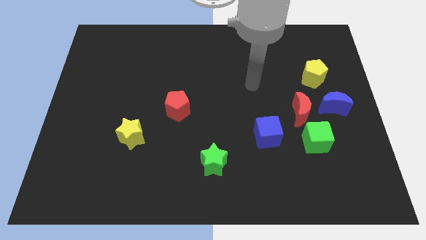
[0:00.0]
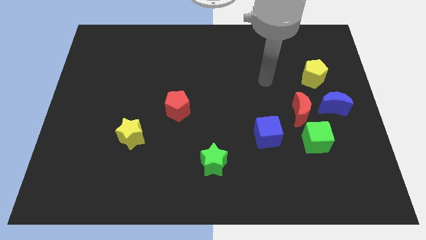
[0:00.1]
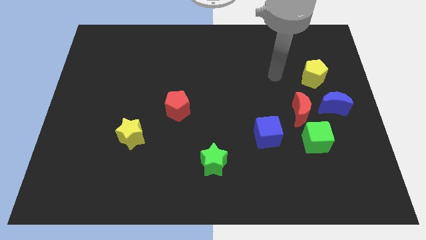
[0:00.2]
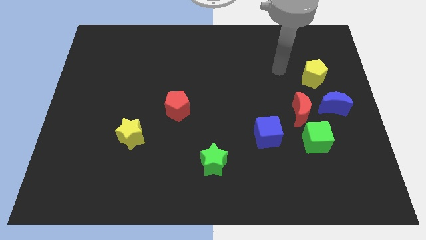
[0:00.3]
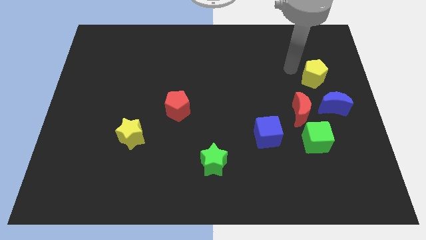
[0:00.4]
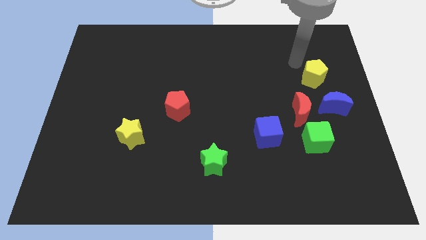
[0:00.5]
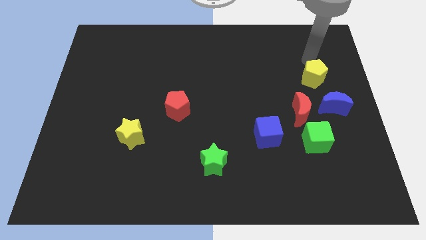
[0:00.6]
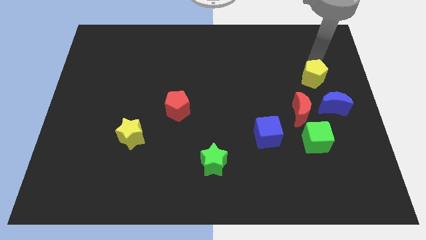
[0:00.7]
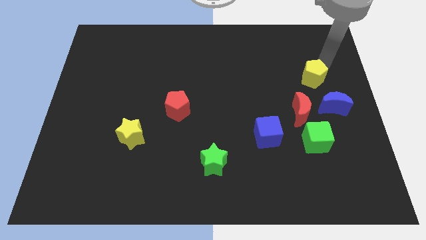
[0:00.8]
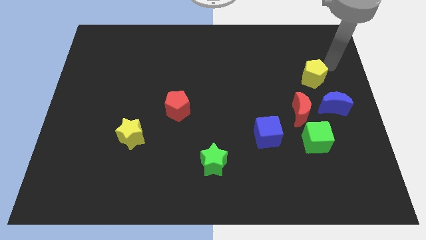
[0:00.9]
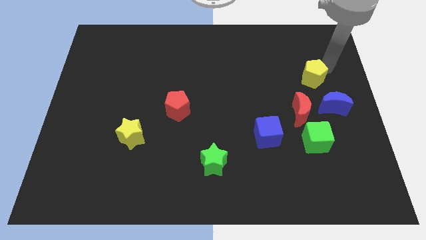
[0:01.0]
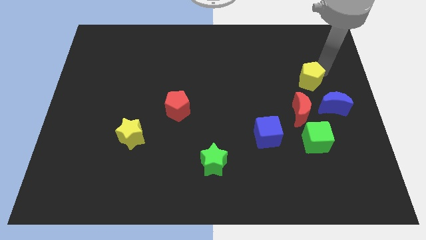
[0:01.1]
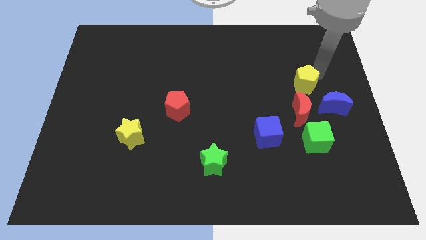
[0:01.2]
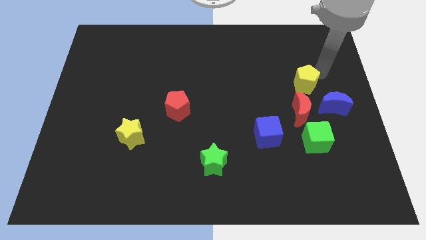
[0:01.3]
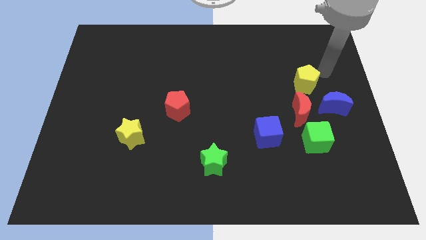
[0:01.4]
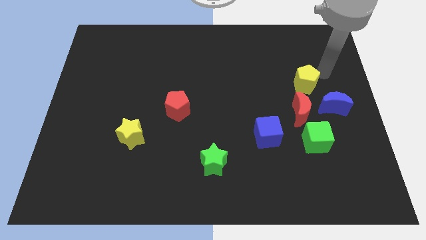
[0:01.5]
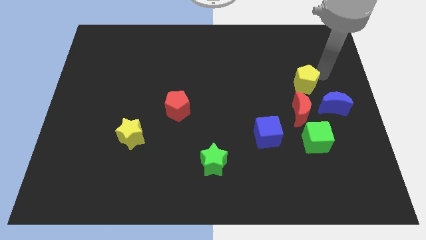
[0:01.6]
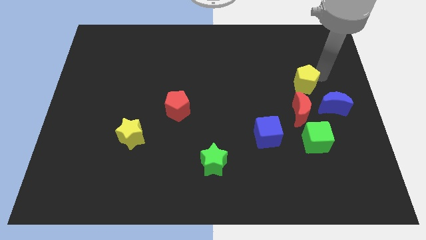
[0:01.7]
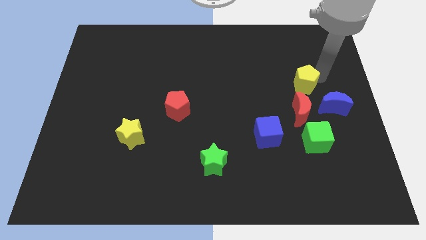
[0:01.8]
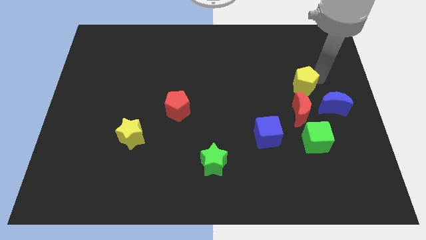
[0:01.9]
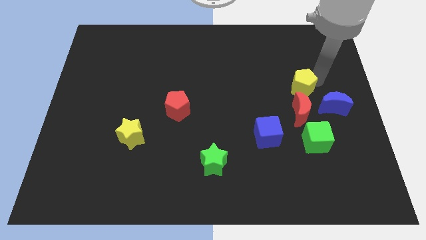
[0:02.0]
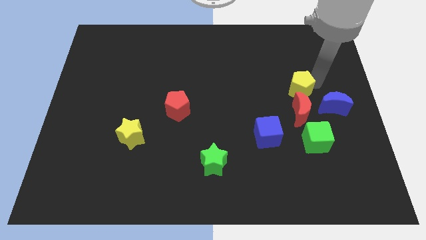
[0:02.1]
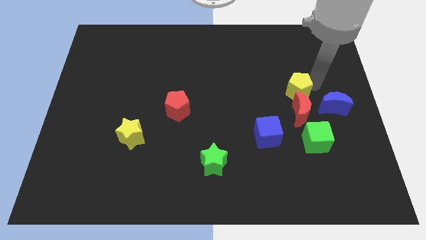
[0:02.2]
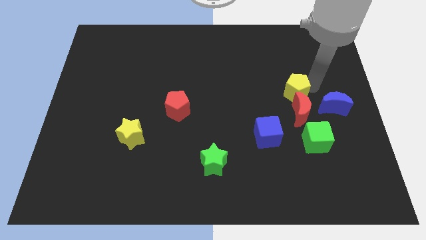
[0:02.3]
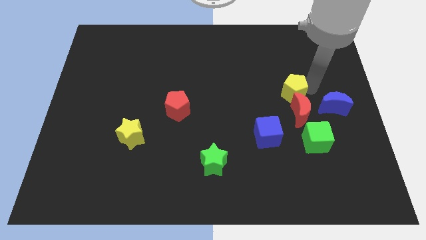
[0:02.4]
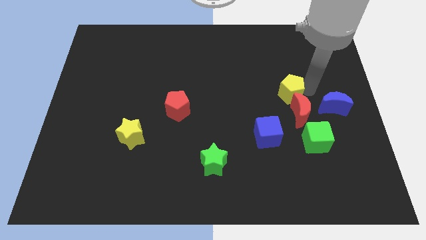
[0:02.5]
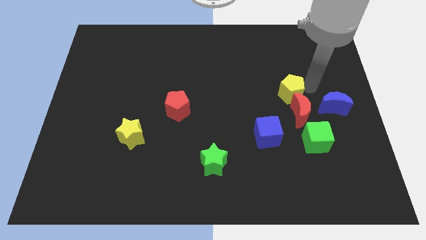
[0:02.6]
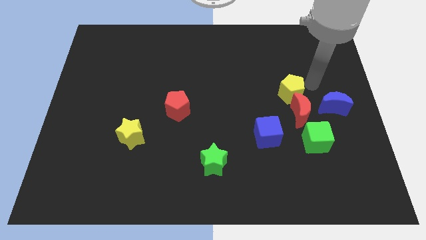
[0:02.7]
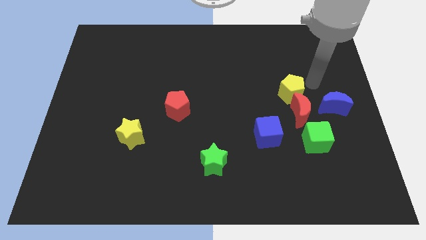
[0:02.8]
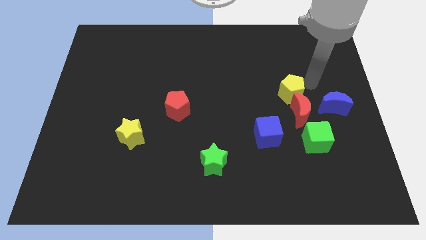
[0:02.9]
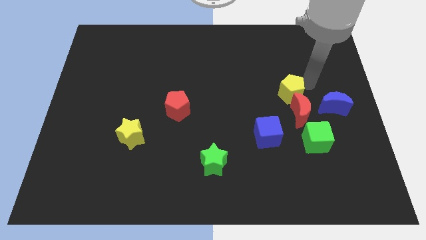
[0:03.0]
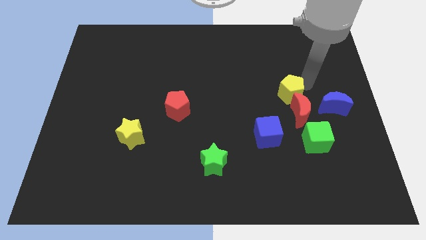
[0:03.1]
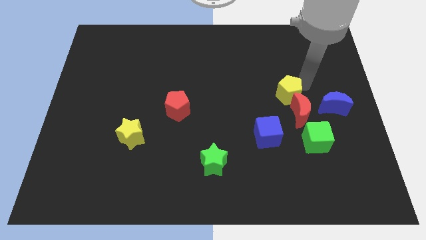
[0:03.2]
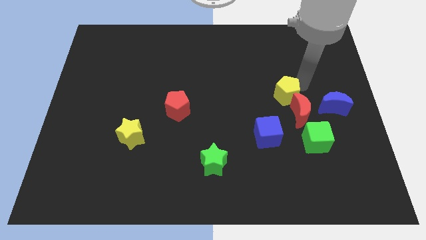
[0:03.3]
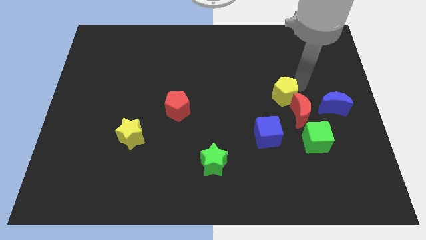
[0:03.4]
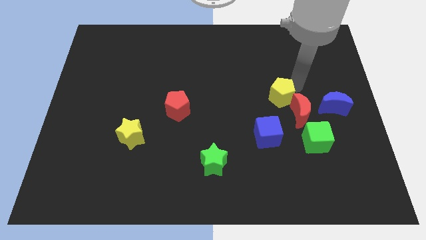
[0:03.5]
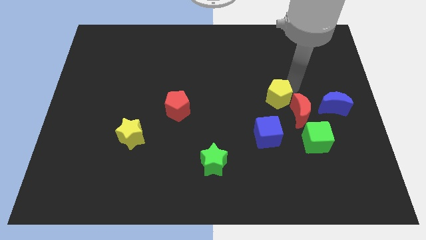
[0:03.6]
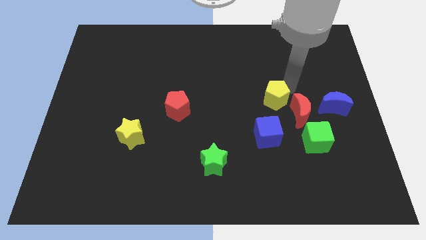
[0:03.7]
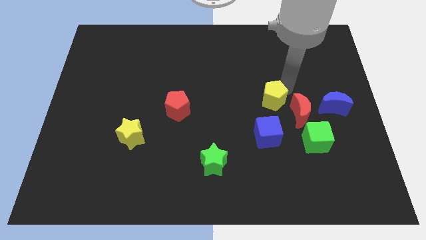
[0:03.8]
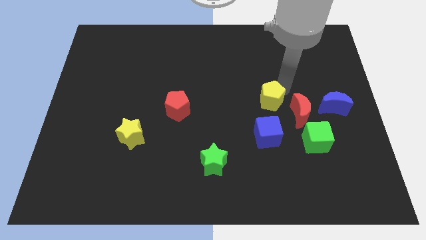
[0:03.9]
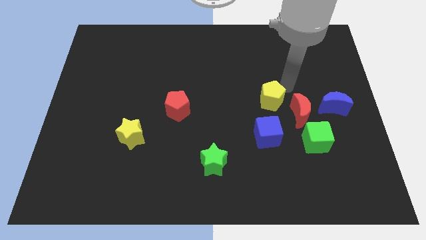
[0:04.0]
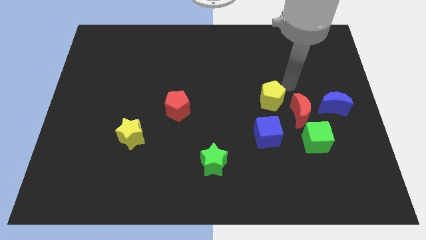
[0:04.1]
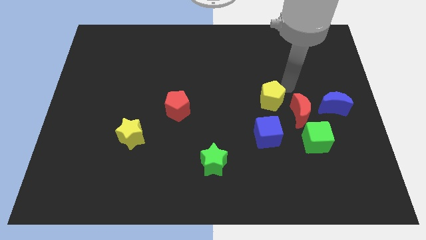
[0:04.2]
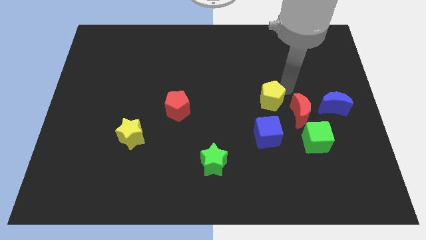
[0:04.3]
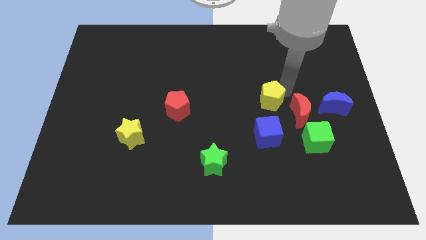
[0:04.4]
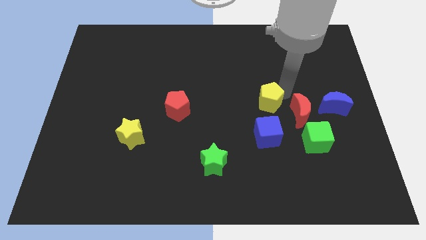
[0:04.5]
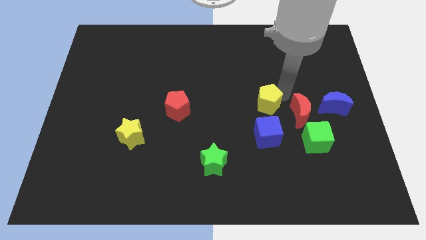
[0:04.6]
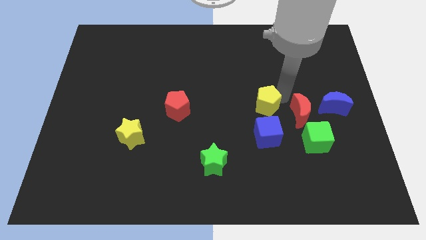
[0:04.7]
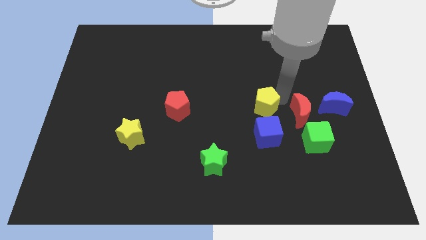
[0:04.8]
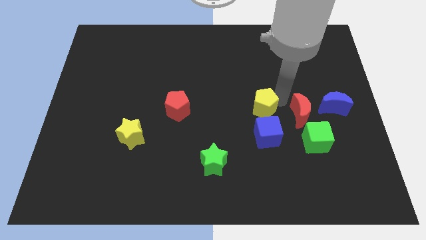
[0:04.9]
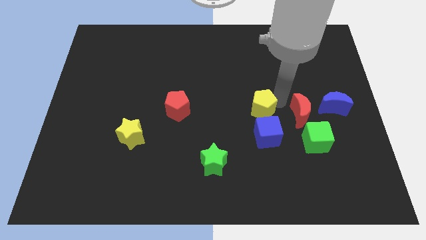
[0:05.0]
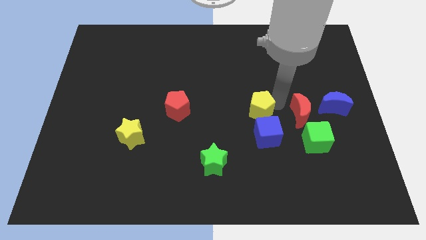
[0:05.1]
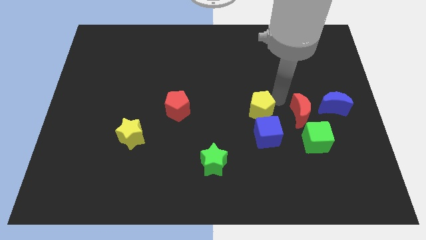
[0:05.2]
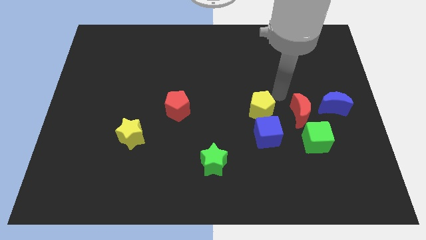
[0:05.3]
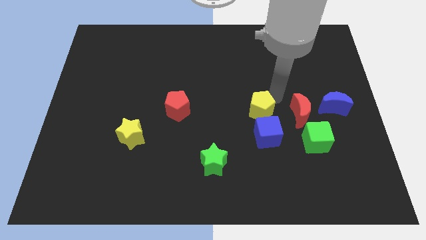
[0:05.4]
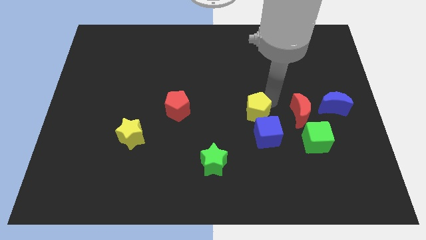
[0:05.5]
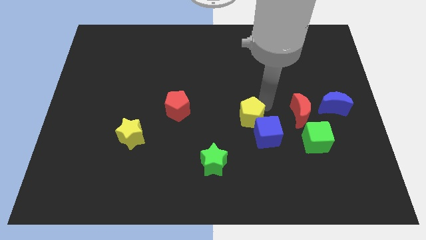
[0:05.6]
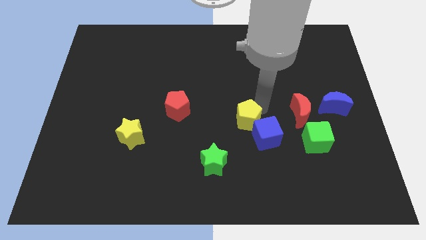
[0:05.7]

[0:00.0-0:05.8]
move the yellow pentagon to the left of the blue cube

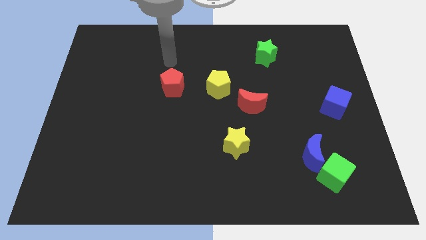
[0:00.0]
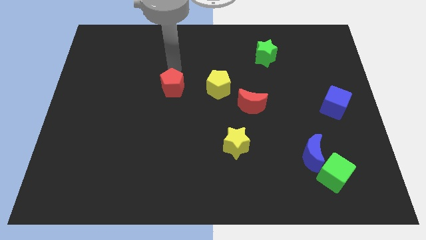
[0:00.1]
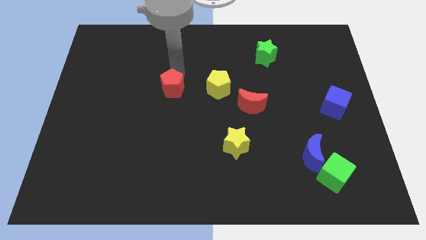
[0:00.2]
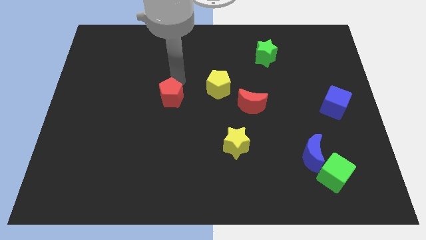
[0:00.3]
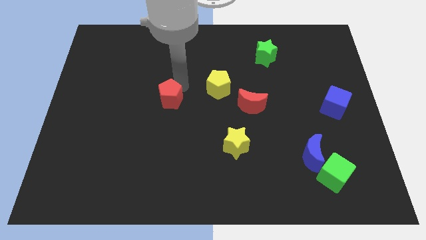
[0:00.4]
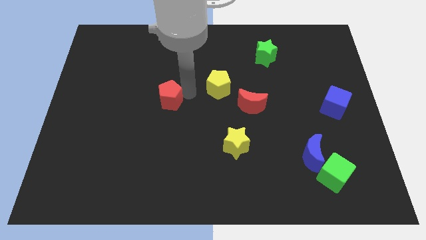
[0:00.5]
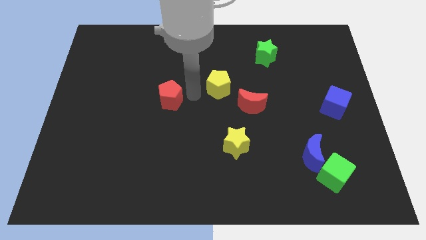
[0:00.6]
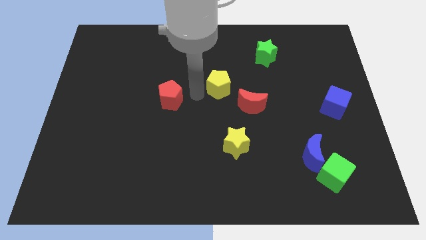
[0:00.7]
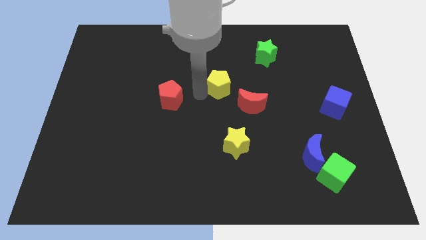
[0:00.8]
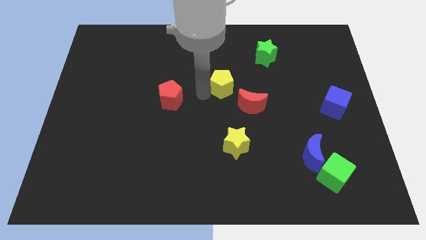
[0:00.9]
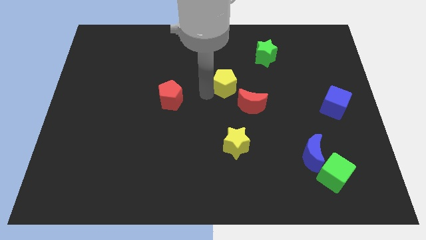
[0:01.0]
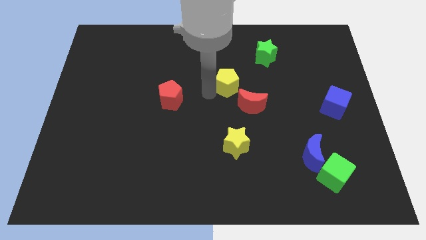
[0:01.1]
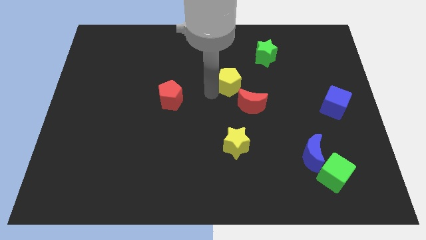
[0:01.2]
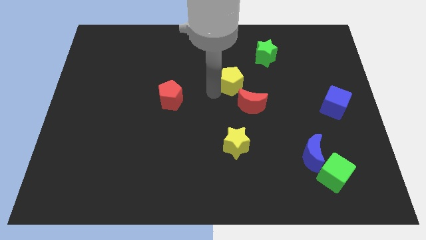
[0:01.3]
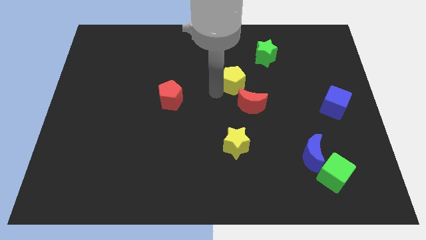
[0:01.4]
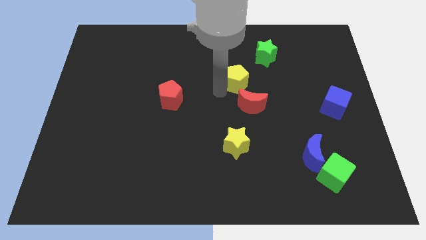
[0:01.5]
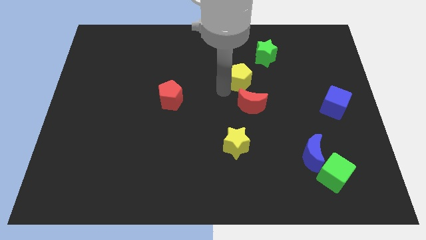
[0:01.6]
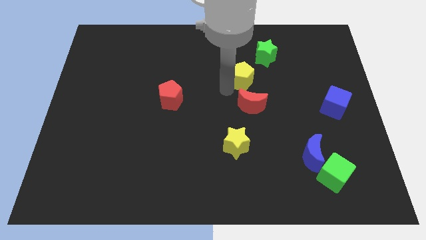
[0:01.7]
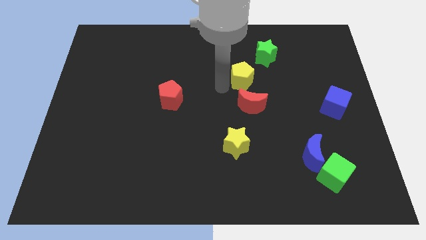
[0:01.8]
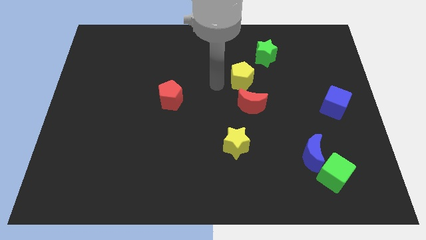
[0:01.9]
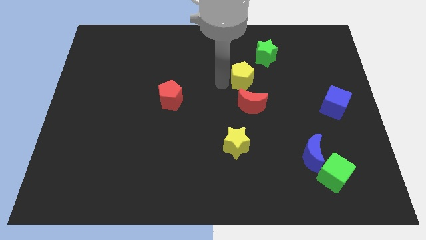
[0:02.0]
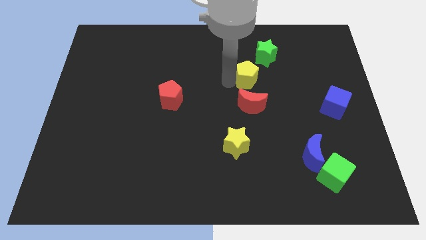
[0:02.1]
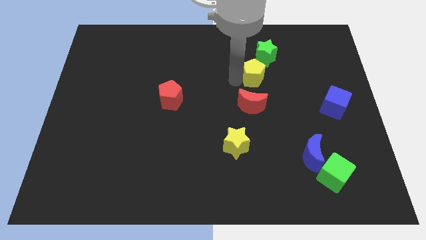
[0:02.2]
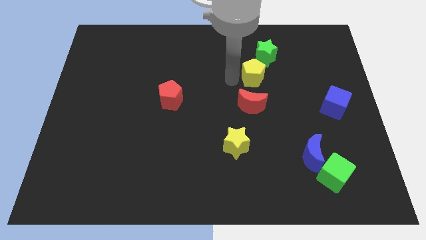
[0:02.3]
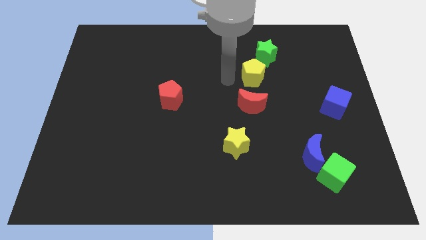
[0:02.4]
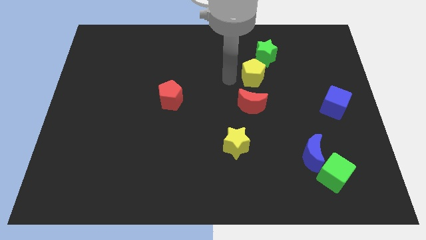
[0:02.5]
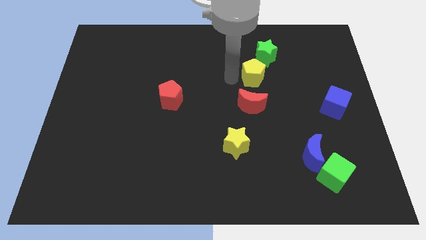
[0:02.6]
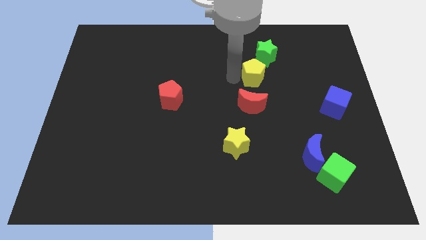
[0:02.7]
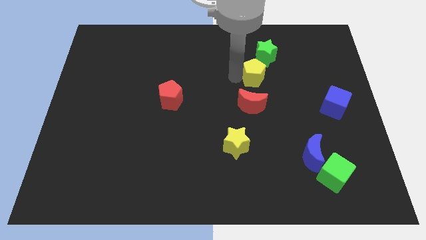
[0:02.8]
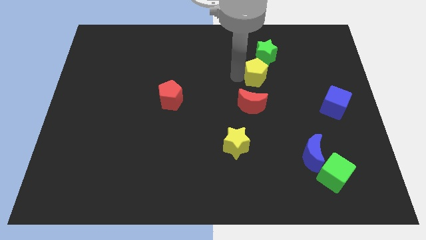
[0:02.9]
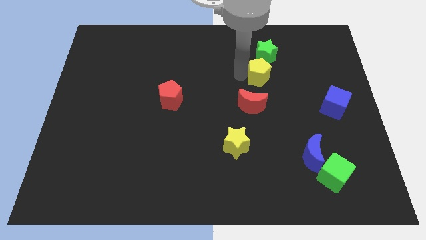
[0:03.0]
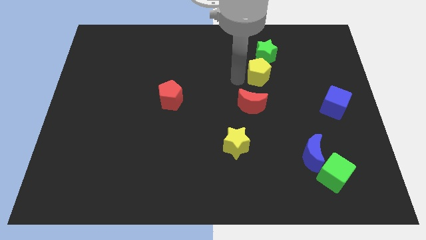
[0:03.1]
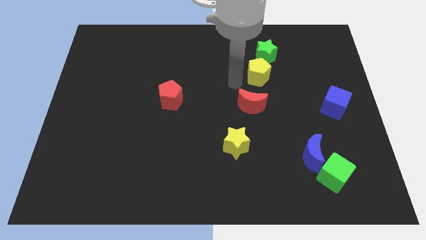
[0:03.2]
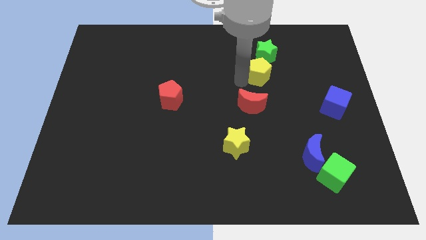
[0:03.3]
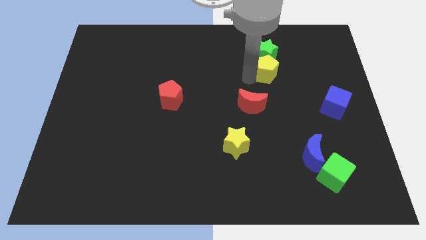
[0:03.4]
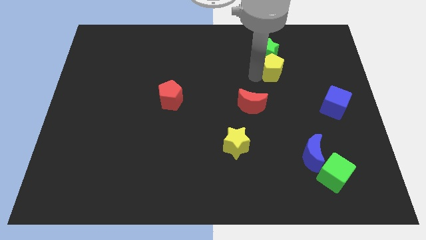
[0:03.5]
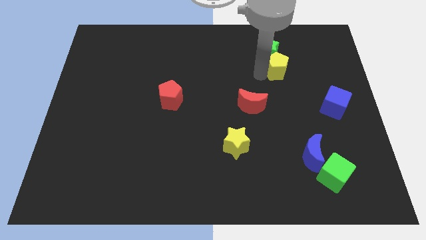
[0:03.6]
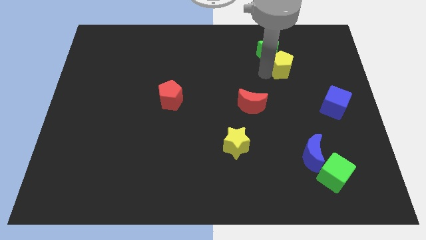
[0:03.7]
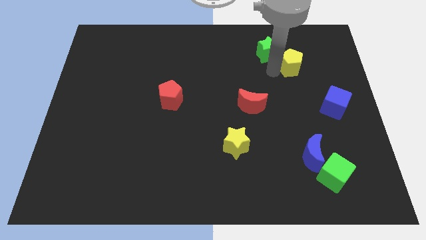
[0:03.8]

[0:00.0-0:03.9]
slide the yellow pentagon right of the green star
